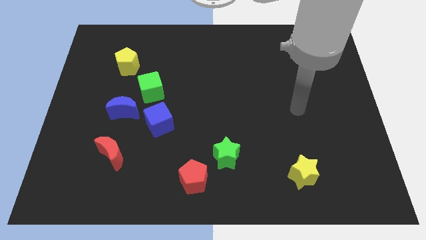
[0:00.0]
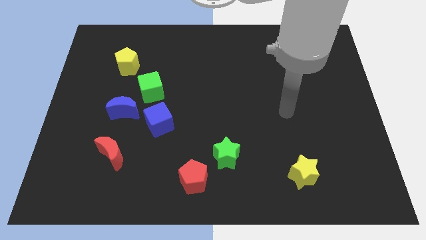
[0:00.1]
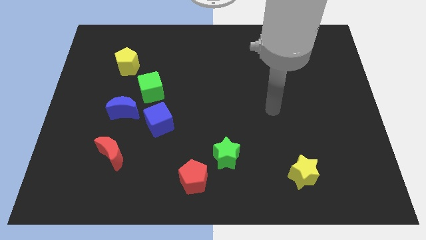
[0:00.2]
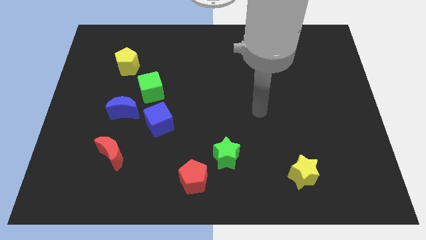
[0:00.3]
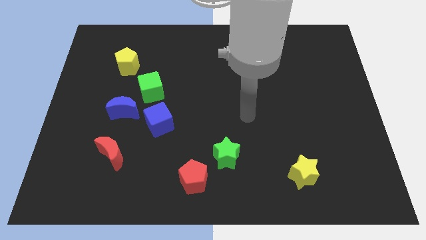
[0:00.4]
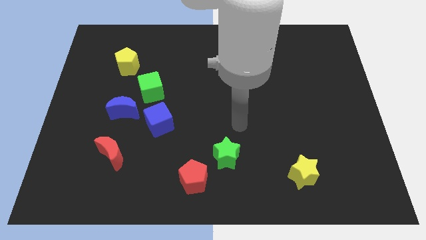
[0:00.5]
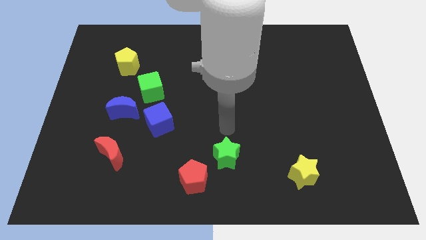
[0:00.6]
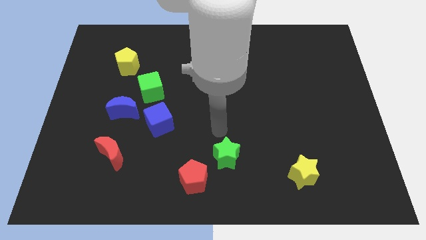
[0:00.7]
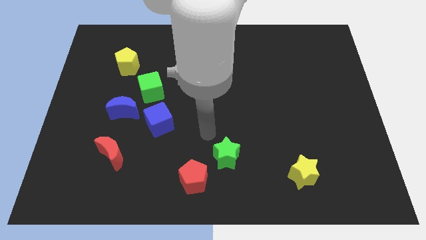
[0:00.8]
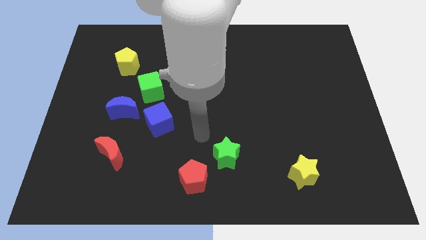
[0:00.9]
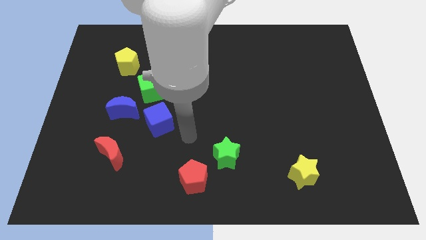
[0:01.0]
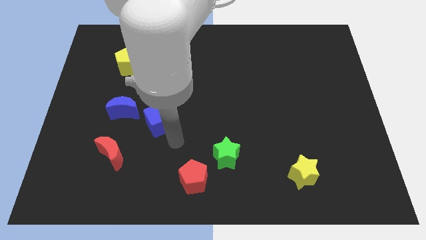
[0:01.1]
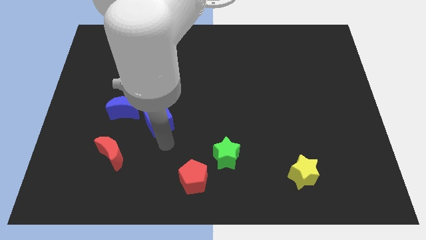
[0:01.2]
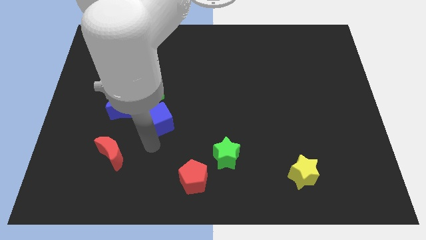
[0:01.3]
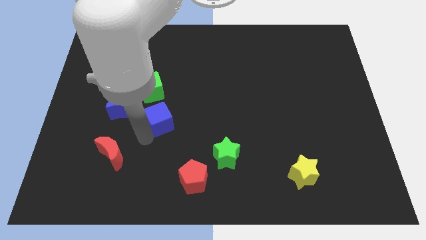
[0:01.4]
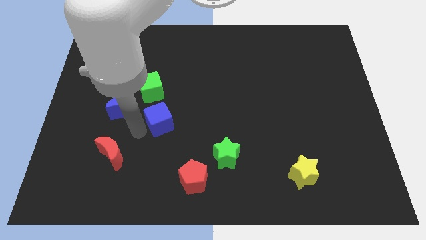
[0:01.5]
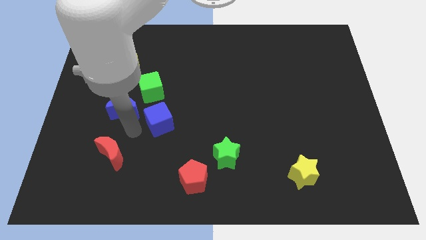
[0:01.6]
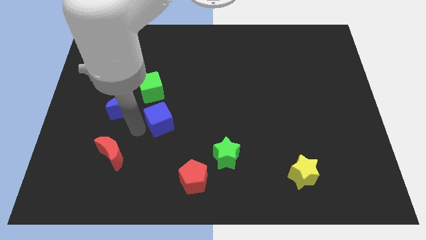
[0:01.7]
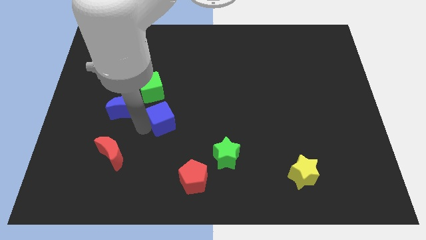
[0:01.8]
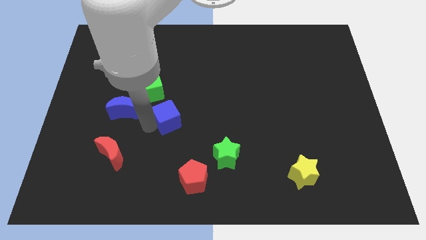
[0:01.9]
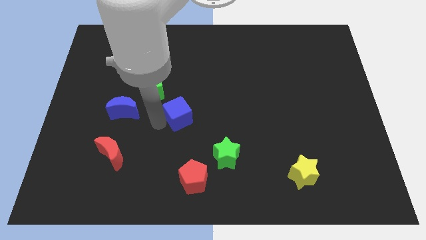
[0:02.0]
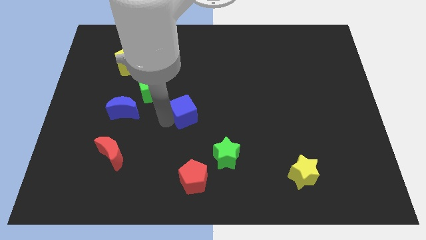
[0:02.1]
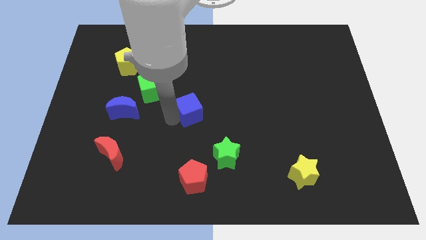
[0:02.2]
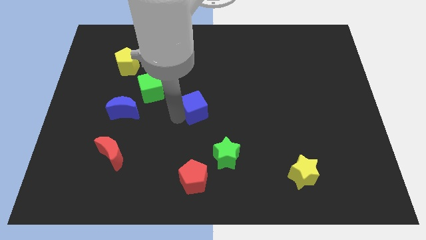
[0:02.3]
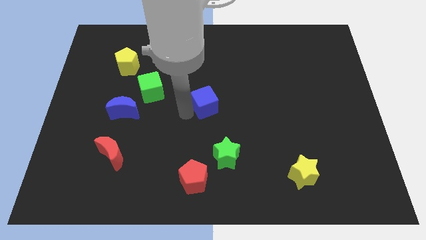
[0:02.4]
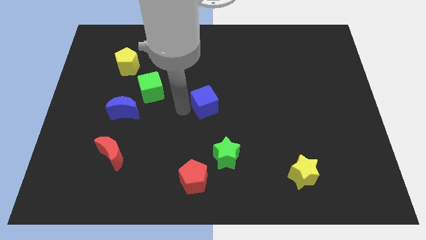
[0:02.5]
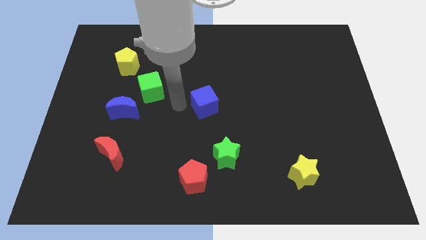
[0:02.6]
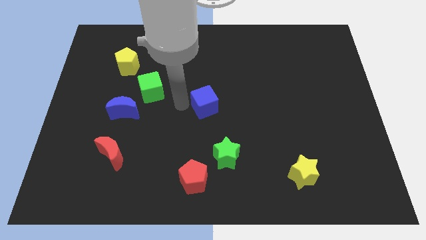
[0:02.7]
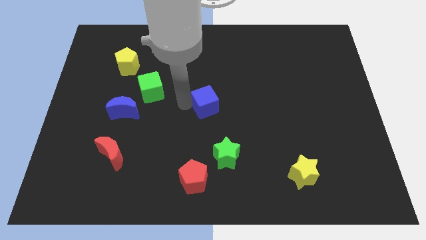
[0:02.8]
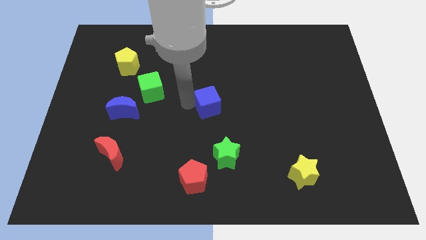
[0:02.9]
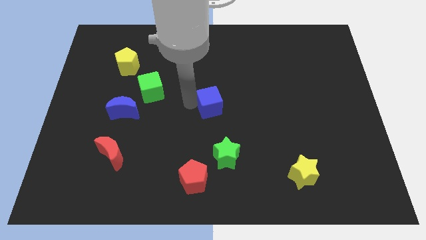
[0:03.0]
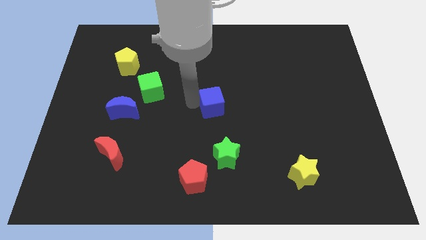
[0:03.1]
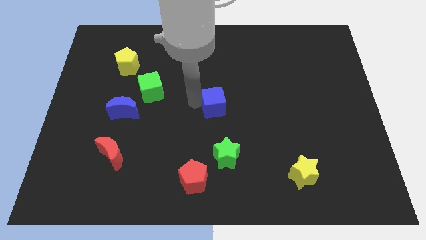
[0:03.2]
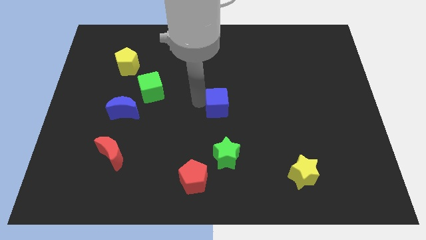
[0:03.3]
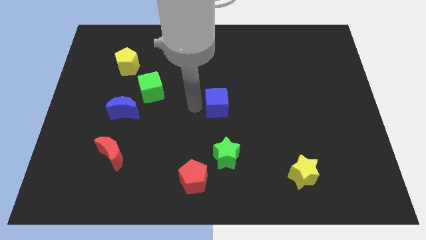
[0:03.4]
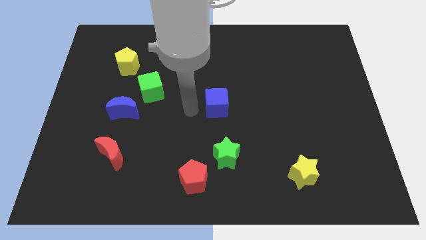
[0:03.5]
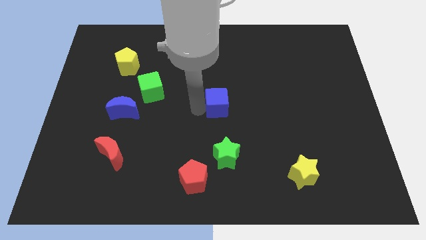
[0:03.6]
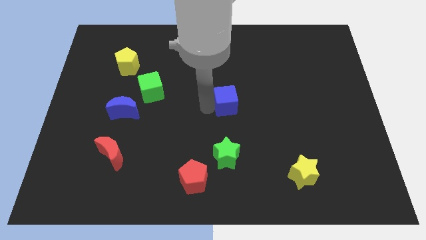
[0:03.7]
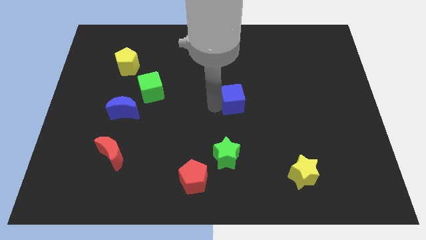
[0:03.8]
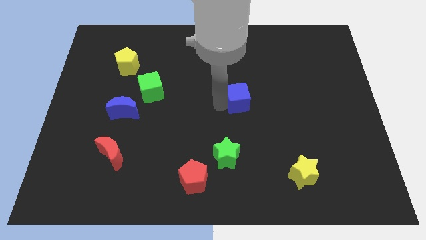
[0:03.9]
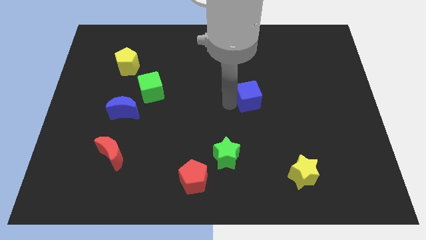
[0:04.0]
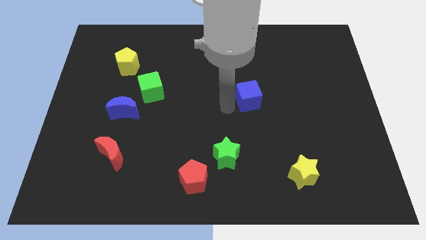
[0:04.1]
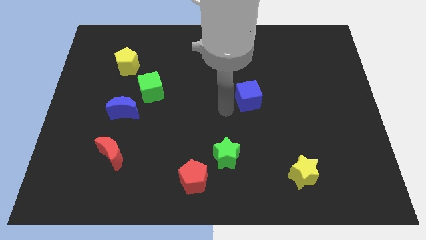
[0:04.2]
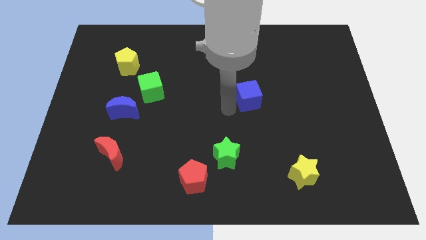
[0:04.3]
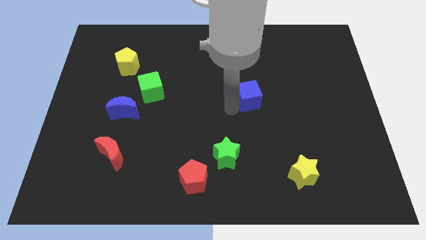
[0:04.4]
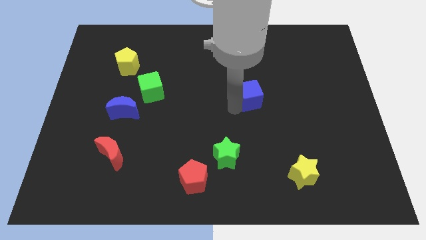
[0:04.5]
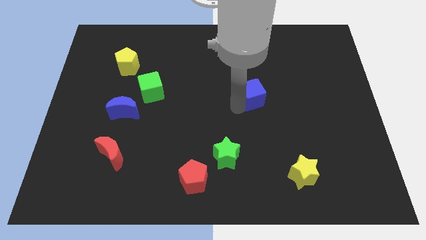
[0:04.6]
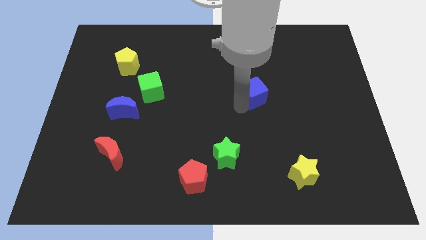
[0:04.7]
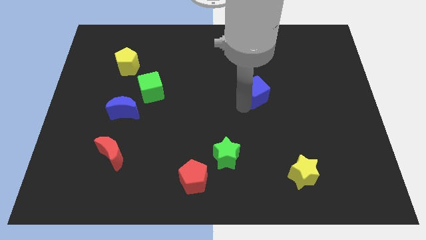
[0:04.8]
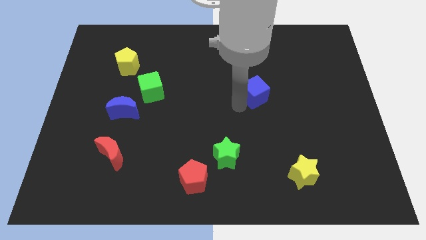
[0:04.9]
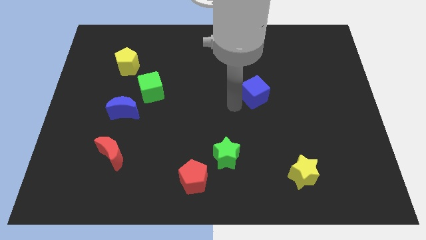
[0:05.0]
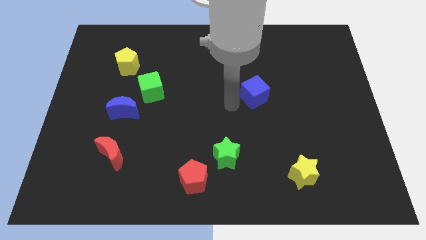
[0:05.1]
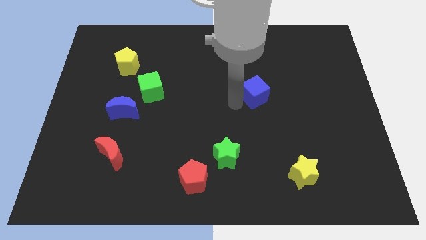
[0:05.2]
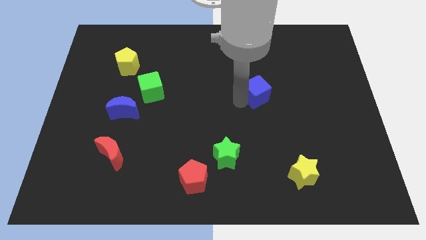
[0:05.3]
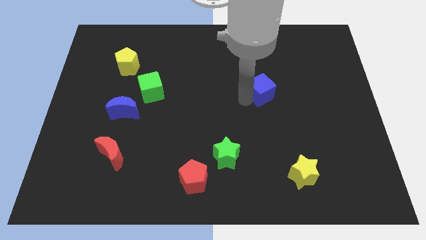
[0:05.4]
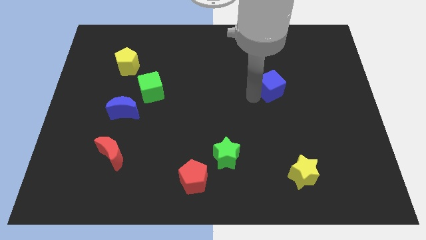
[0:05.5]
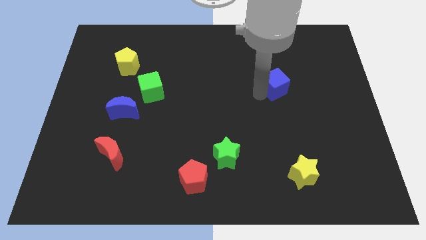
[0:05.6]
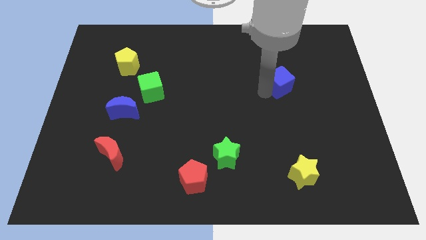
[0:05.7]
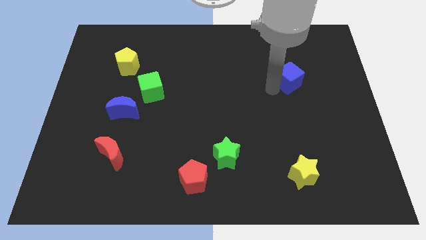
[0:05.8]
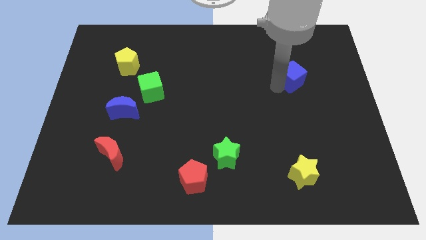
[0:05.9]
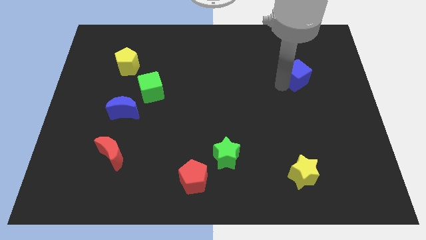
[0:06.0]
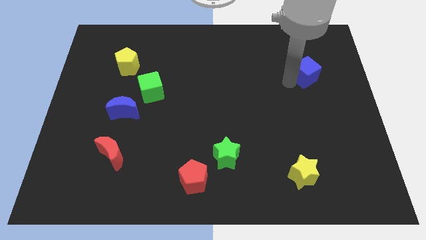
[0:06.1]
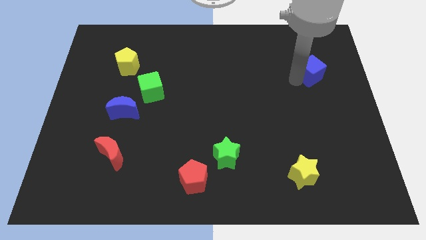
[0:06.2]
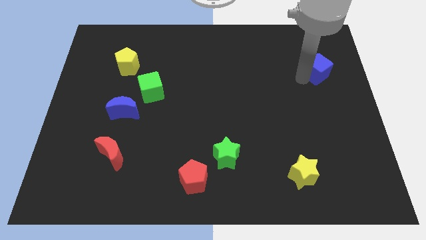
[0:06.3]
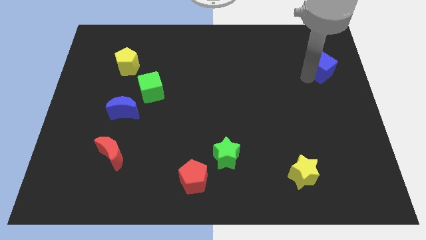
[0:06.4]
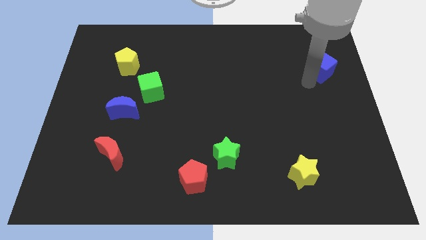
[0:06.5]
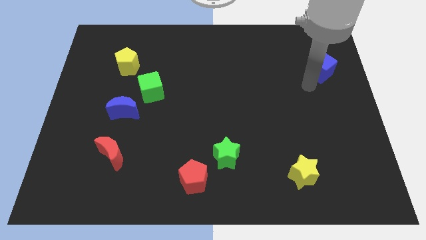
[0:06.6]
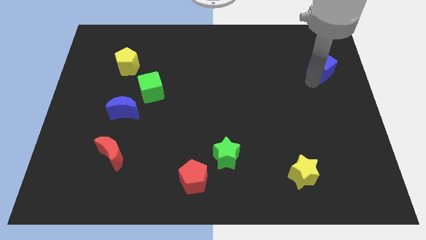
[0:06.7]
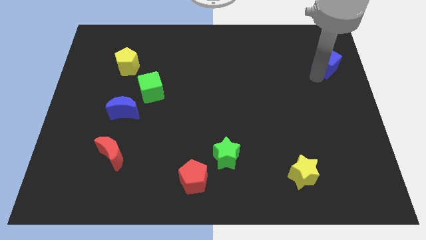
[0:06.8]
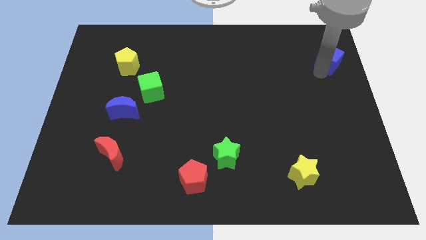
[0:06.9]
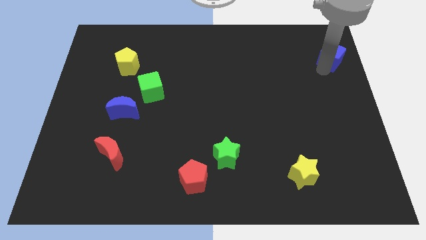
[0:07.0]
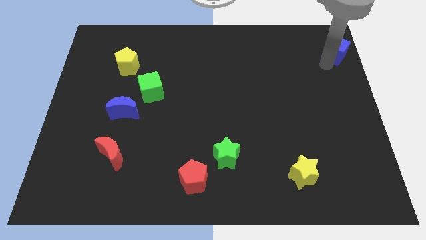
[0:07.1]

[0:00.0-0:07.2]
put the blue cube to the top right corner
